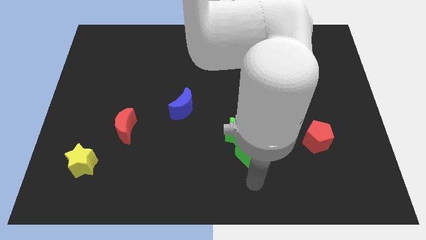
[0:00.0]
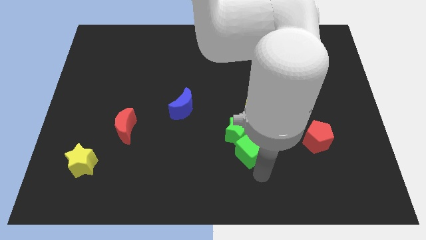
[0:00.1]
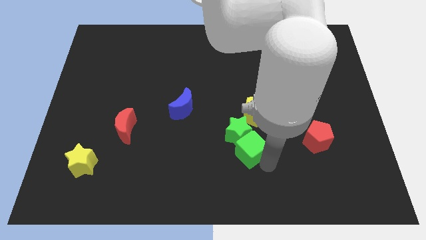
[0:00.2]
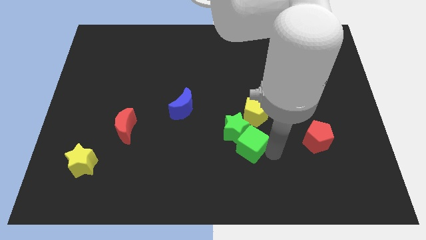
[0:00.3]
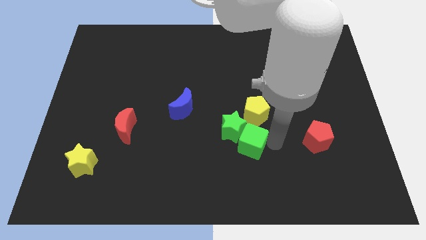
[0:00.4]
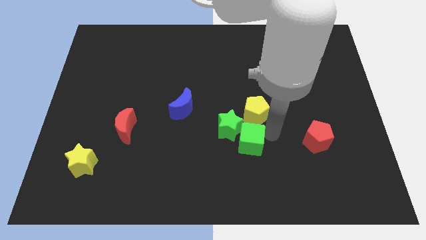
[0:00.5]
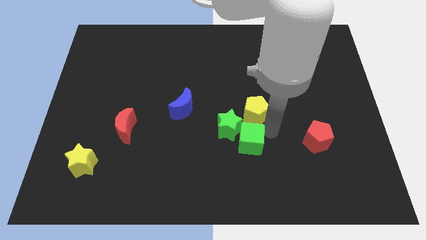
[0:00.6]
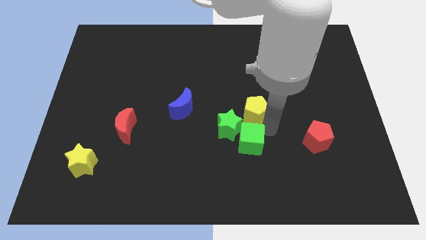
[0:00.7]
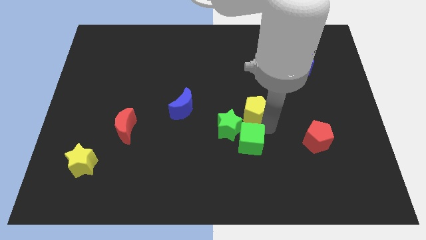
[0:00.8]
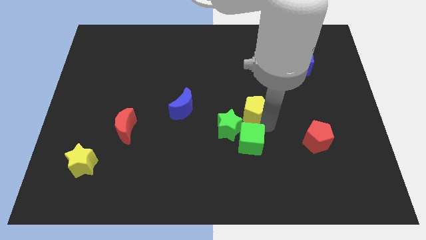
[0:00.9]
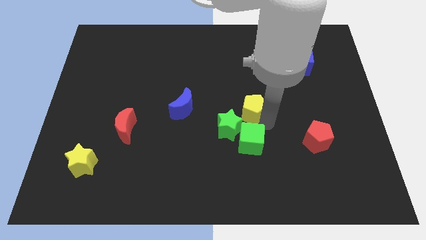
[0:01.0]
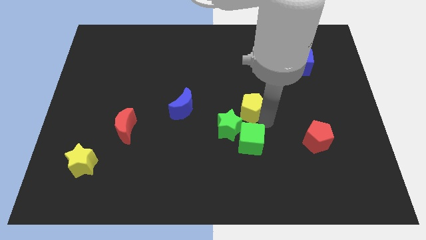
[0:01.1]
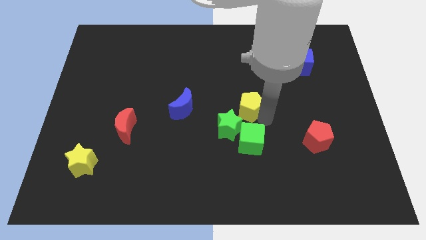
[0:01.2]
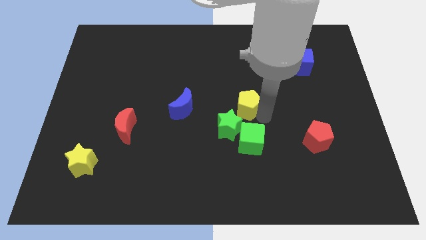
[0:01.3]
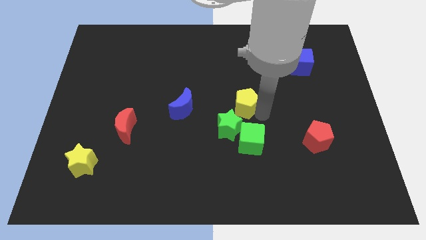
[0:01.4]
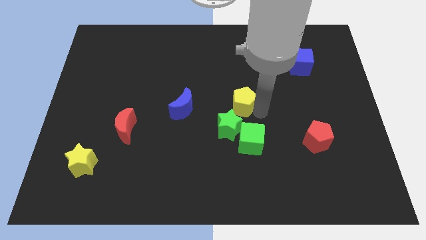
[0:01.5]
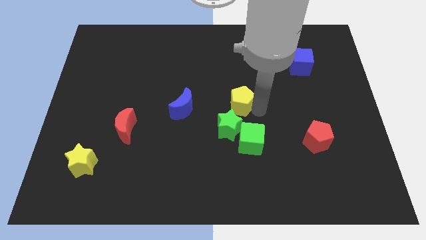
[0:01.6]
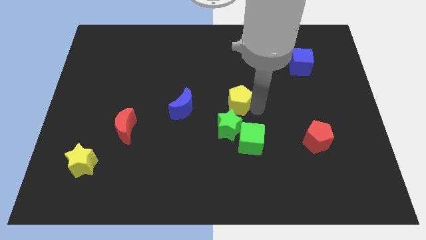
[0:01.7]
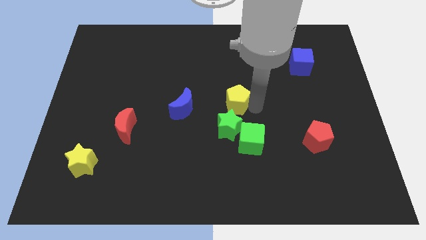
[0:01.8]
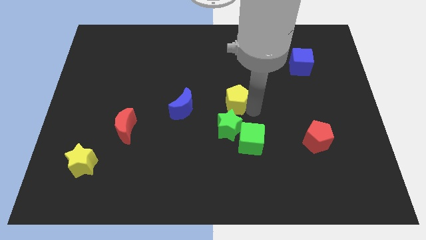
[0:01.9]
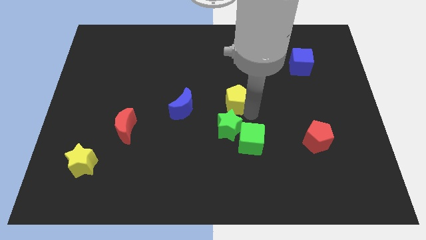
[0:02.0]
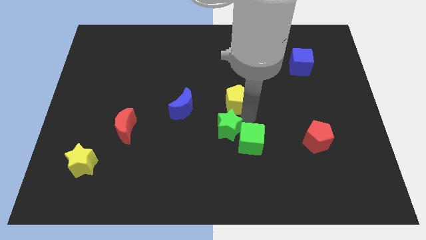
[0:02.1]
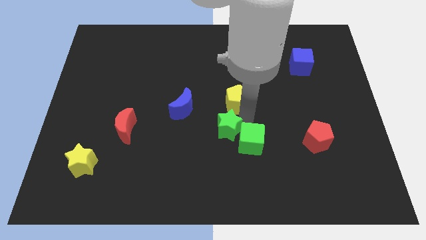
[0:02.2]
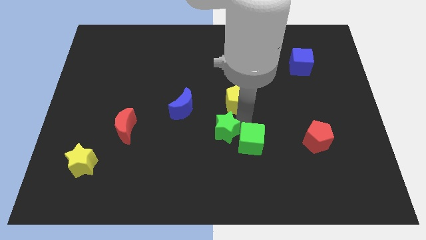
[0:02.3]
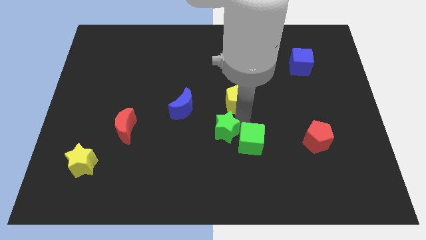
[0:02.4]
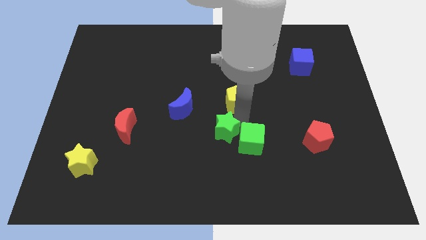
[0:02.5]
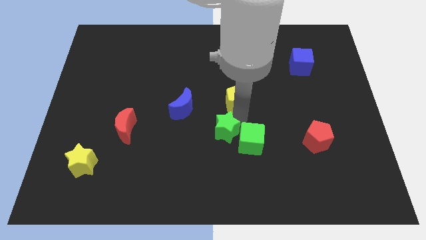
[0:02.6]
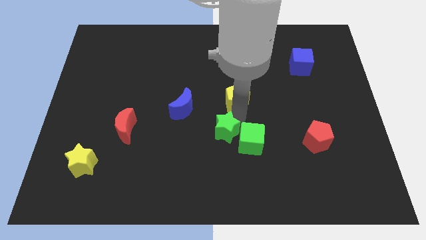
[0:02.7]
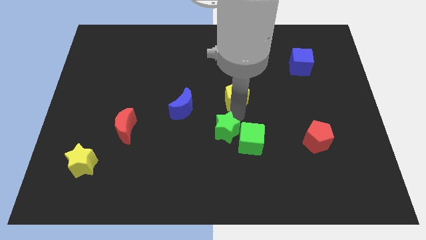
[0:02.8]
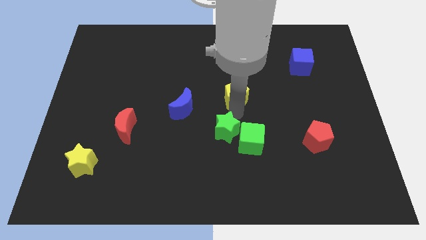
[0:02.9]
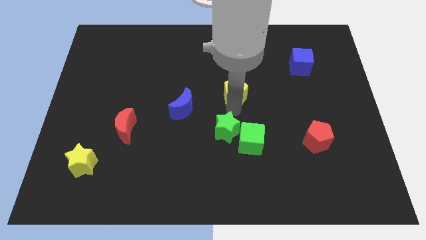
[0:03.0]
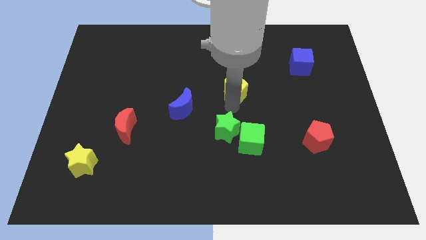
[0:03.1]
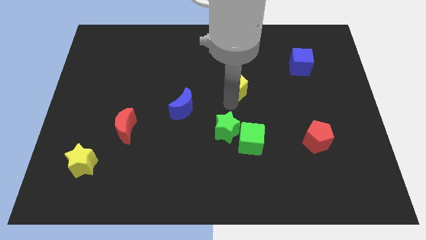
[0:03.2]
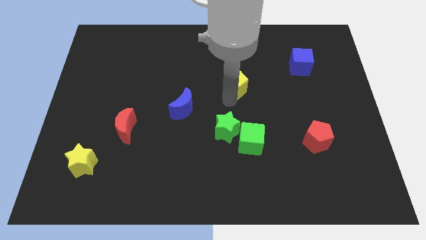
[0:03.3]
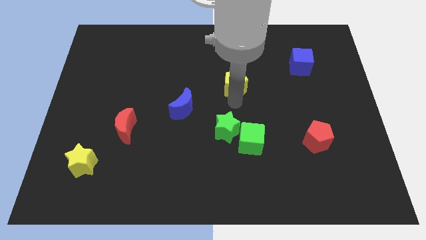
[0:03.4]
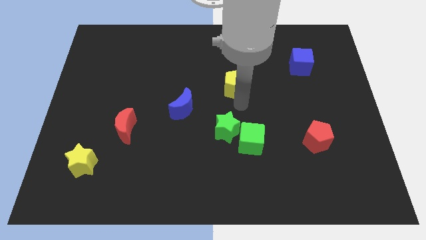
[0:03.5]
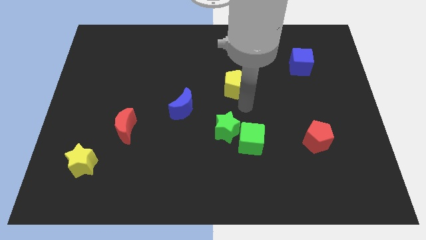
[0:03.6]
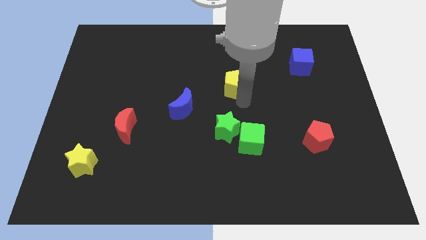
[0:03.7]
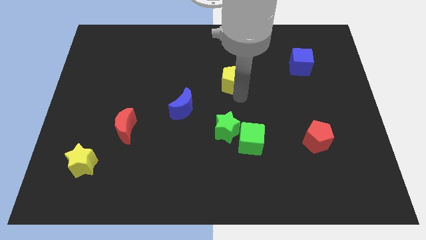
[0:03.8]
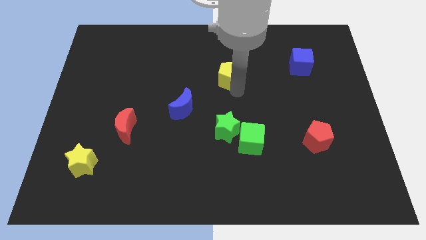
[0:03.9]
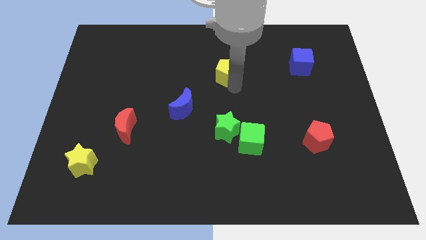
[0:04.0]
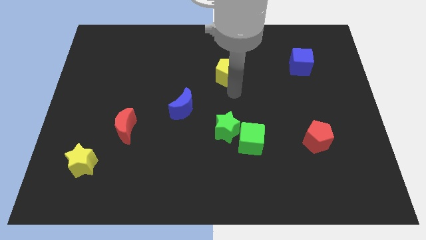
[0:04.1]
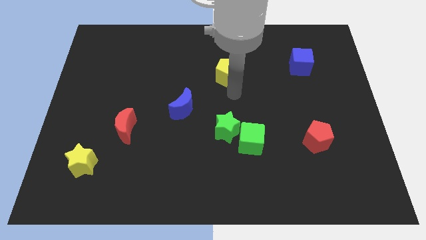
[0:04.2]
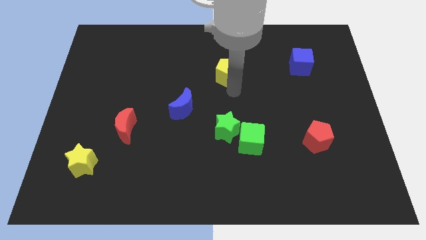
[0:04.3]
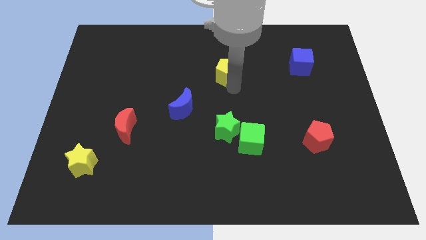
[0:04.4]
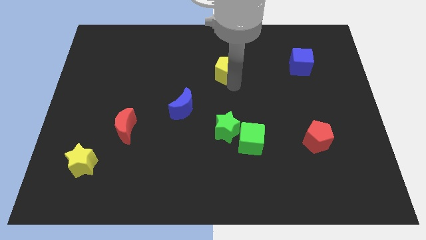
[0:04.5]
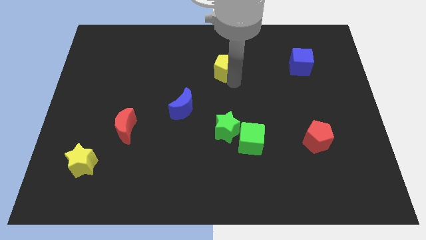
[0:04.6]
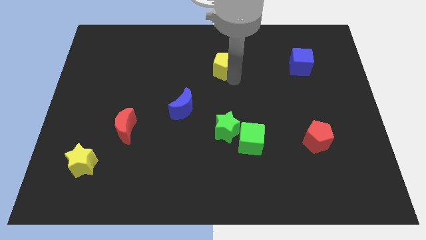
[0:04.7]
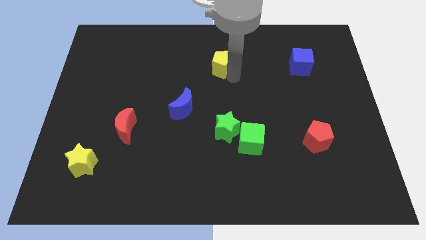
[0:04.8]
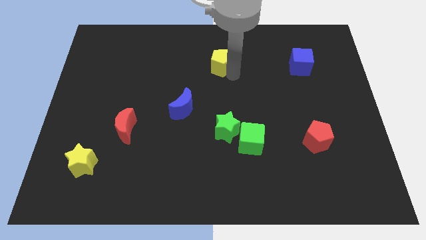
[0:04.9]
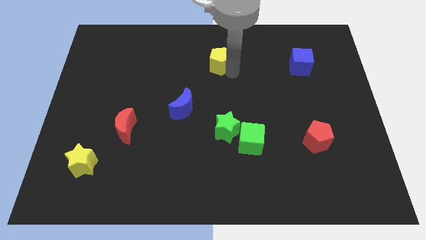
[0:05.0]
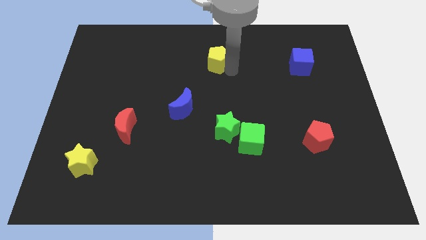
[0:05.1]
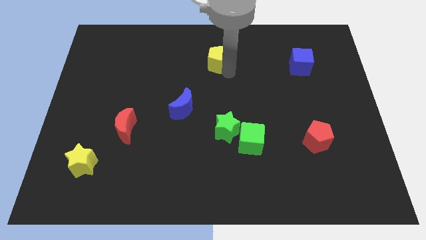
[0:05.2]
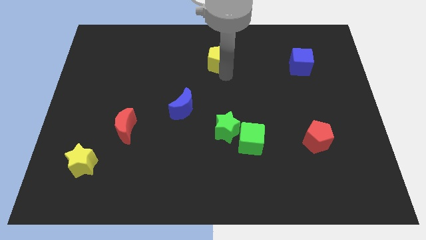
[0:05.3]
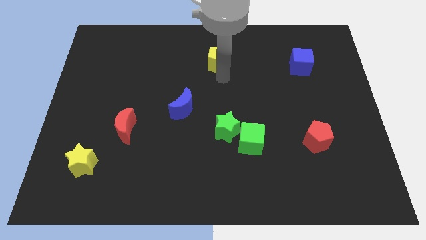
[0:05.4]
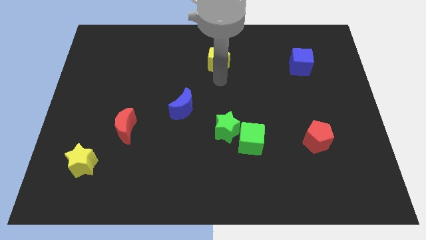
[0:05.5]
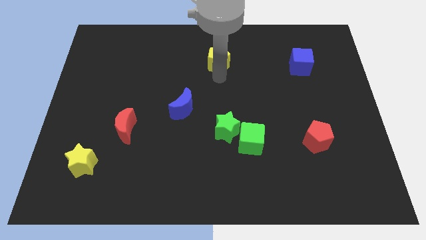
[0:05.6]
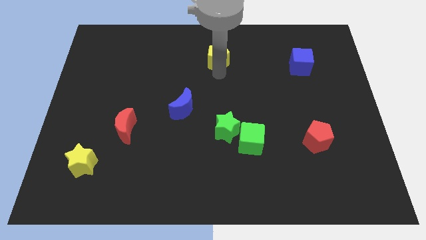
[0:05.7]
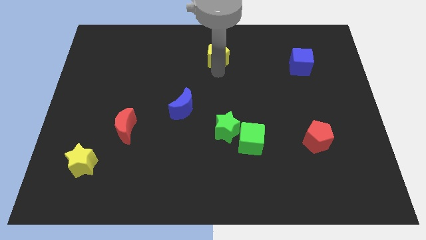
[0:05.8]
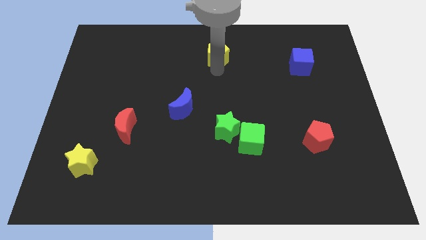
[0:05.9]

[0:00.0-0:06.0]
push the yellow pentagon to the top side
